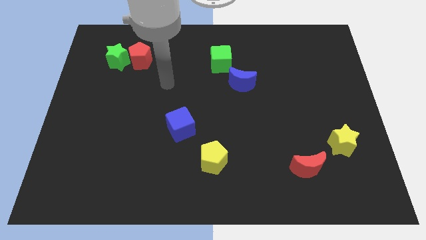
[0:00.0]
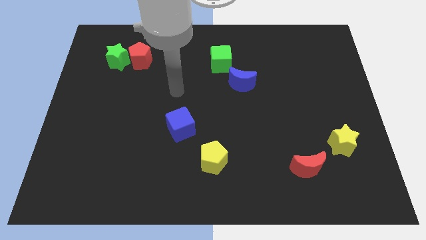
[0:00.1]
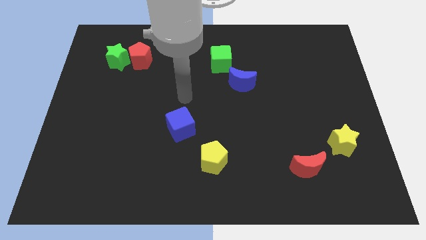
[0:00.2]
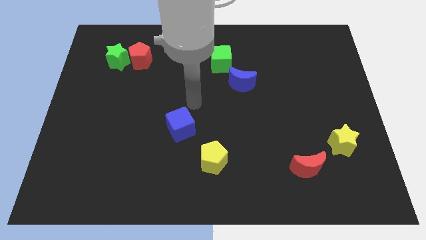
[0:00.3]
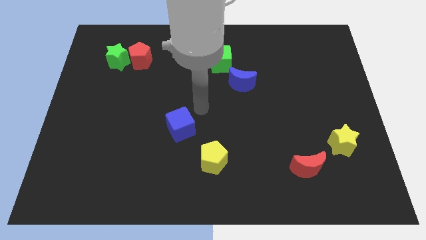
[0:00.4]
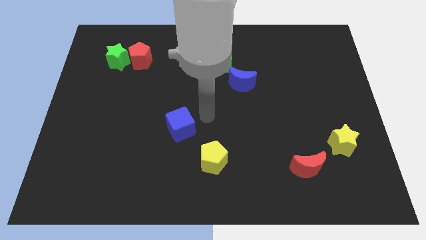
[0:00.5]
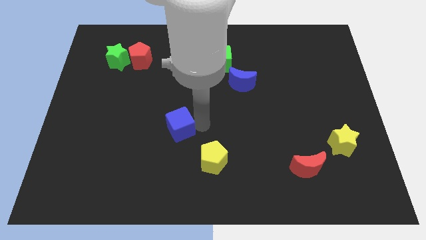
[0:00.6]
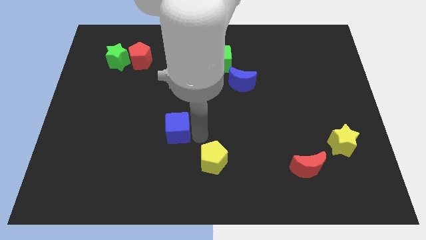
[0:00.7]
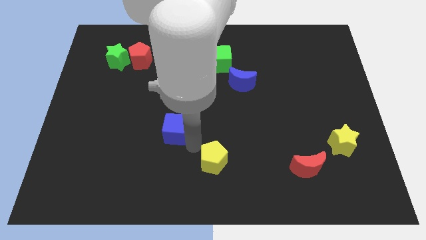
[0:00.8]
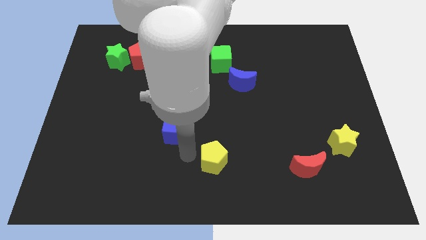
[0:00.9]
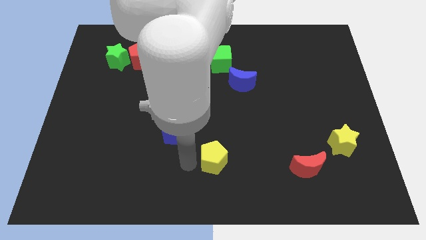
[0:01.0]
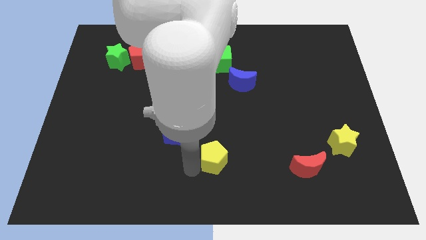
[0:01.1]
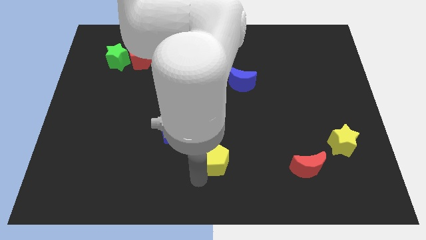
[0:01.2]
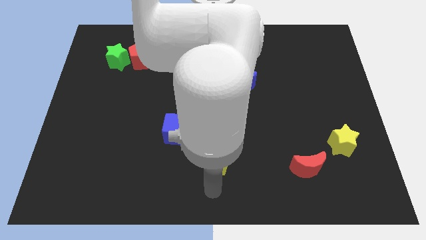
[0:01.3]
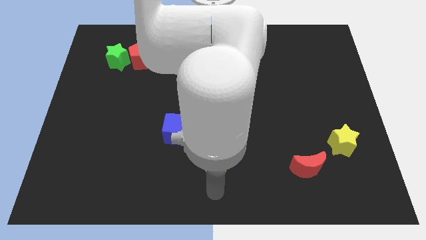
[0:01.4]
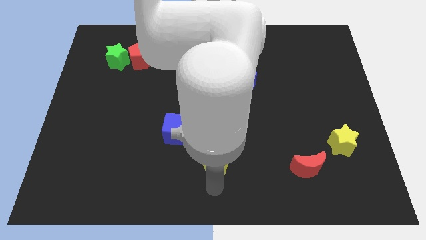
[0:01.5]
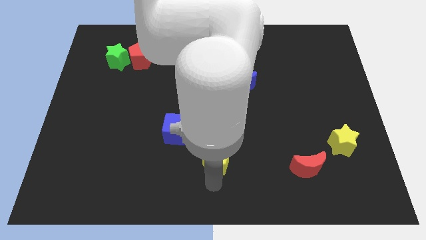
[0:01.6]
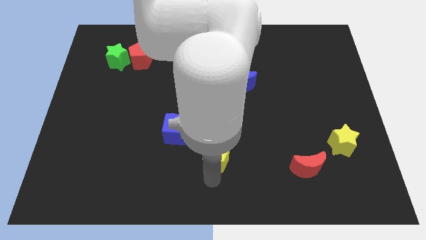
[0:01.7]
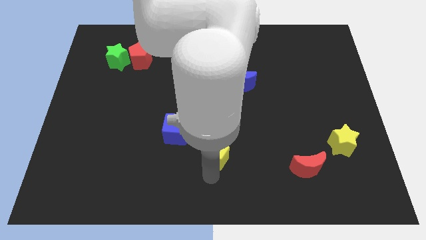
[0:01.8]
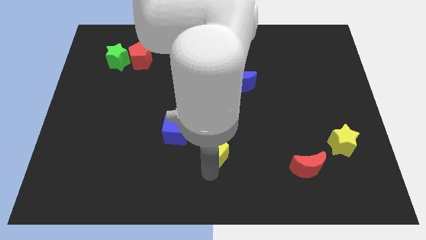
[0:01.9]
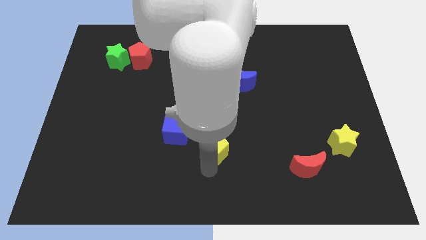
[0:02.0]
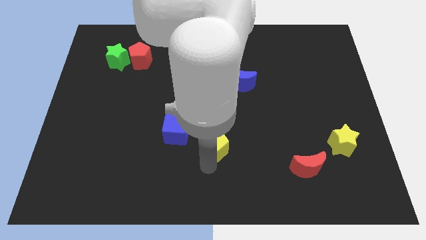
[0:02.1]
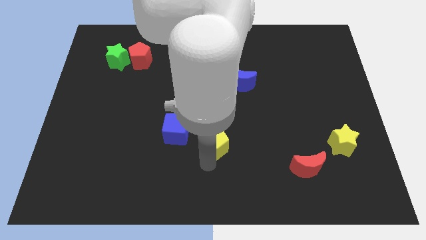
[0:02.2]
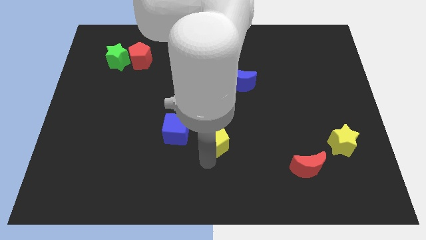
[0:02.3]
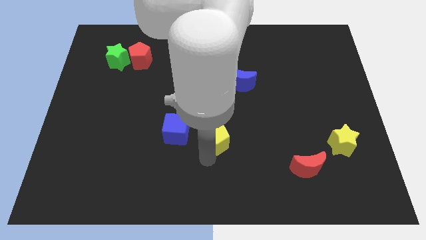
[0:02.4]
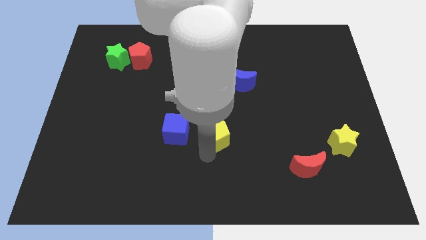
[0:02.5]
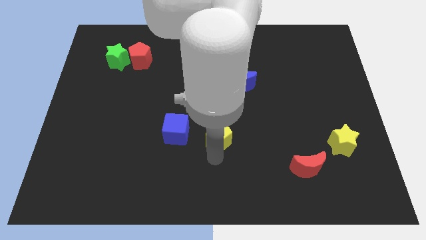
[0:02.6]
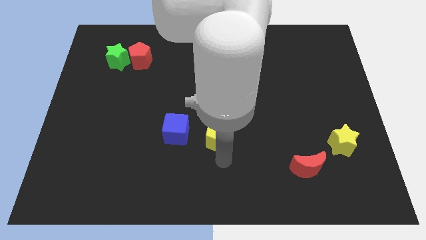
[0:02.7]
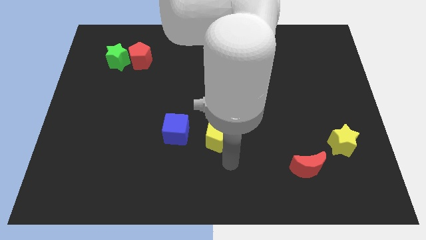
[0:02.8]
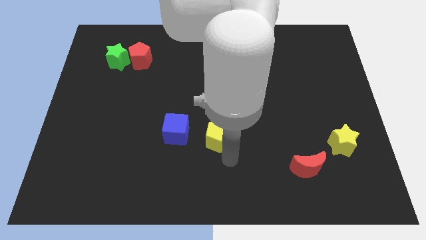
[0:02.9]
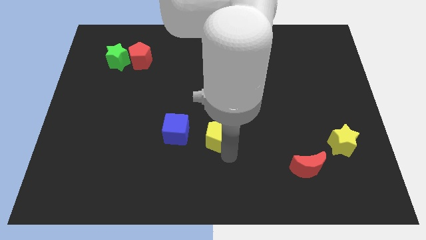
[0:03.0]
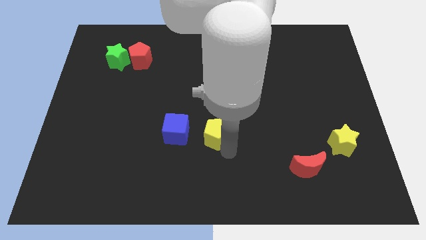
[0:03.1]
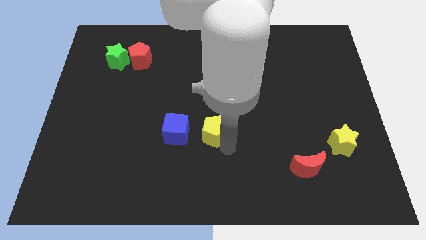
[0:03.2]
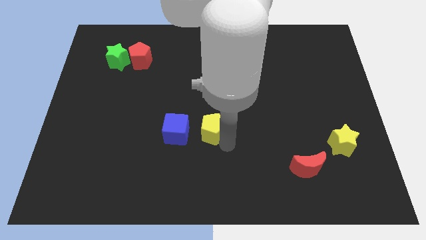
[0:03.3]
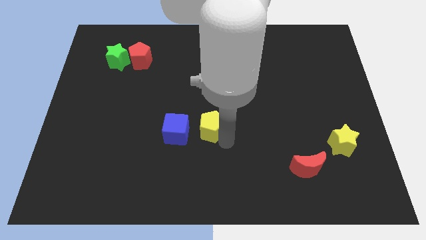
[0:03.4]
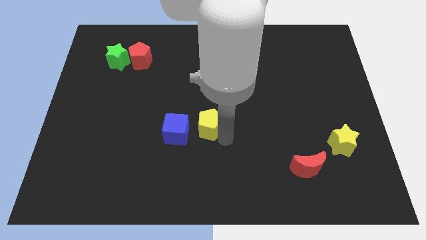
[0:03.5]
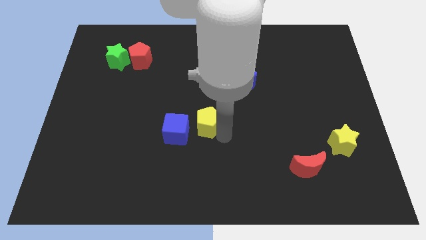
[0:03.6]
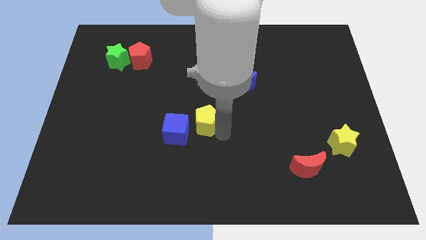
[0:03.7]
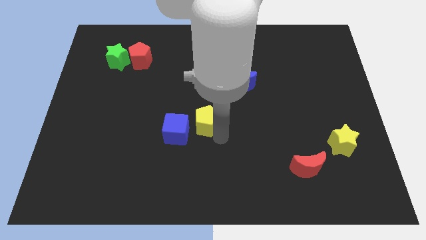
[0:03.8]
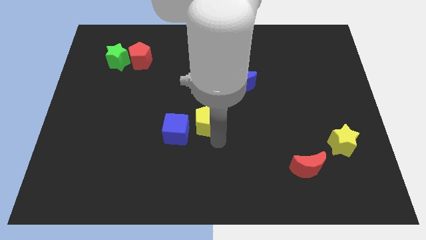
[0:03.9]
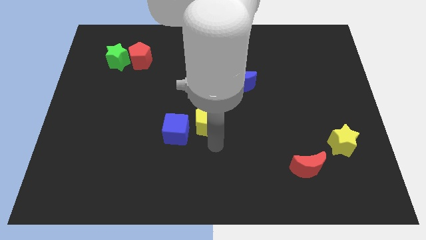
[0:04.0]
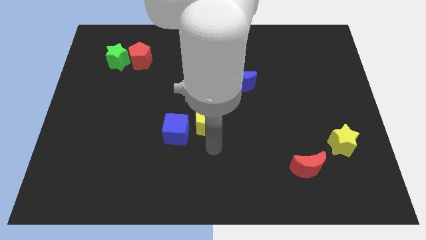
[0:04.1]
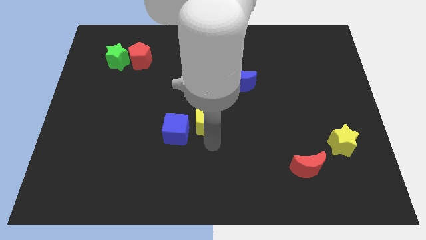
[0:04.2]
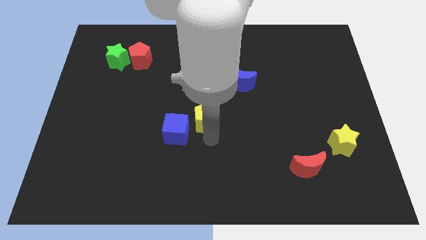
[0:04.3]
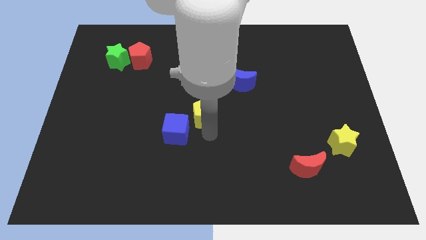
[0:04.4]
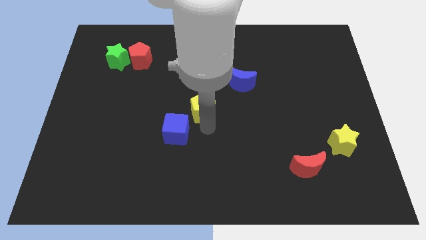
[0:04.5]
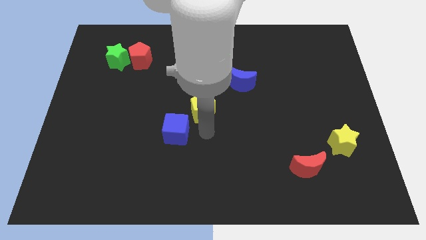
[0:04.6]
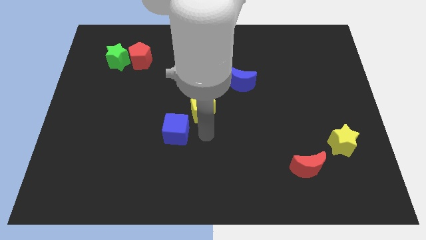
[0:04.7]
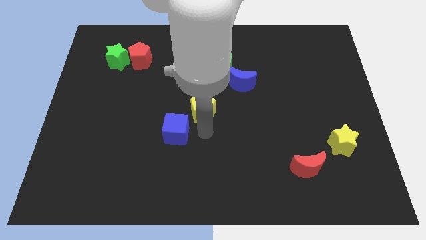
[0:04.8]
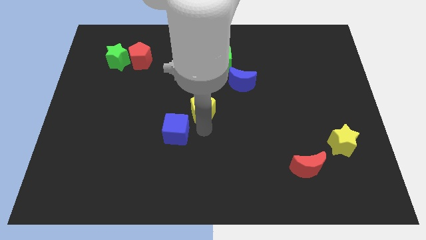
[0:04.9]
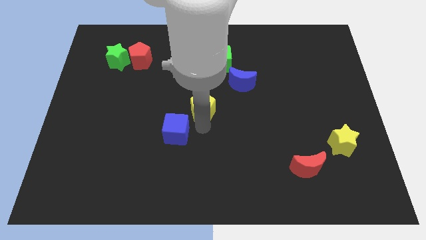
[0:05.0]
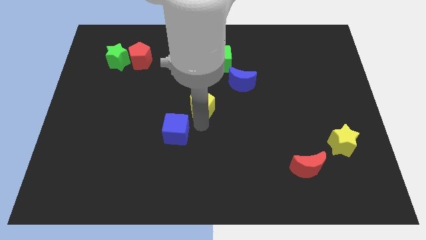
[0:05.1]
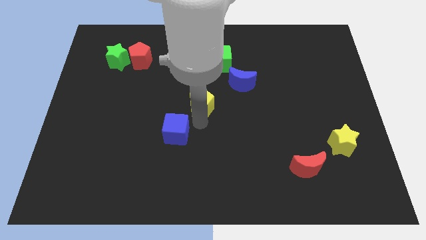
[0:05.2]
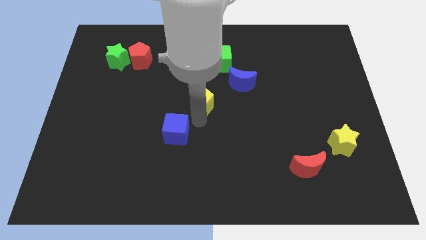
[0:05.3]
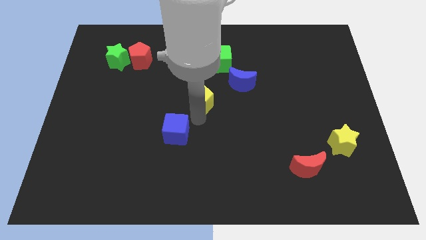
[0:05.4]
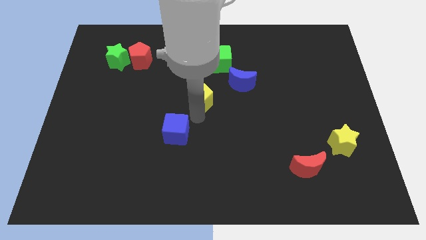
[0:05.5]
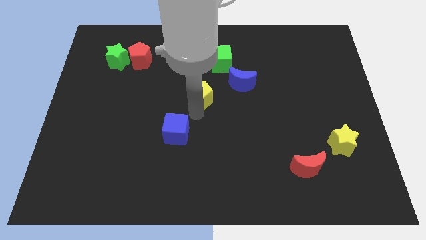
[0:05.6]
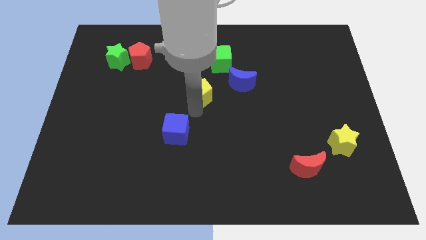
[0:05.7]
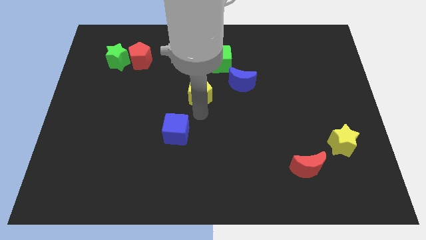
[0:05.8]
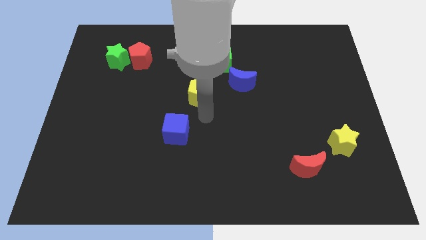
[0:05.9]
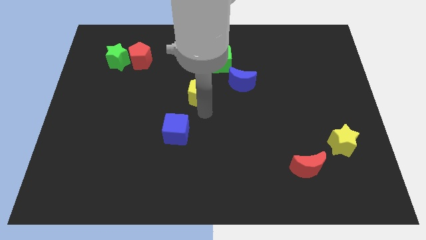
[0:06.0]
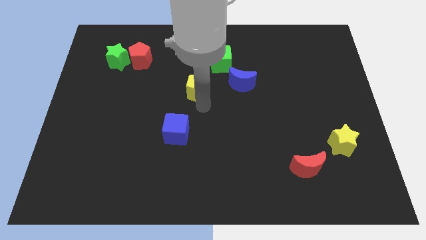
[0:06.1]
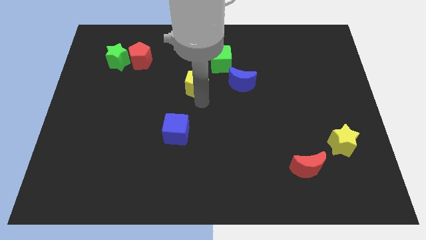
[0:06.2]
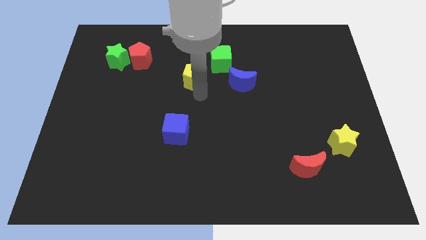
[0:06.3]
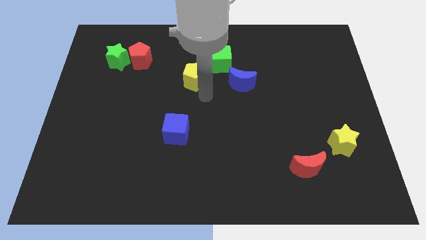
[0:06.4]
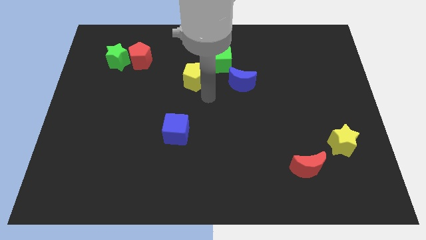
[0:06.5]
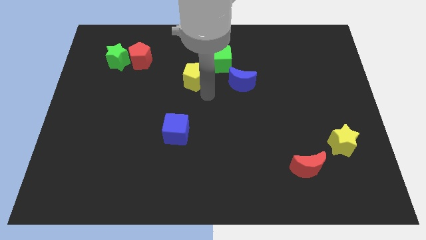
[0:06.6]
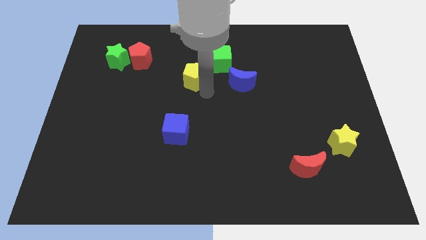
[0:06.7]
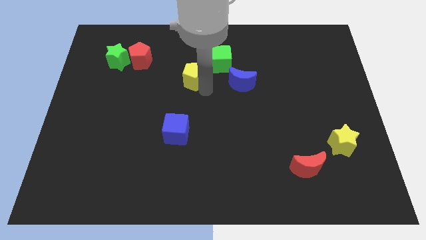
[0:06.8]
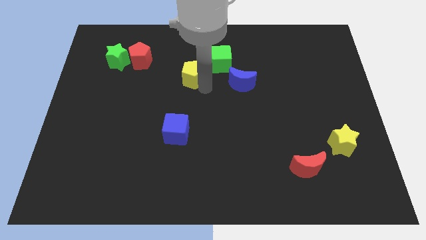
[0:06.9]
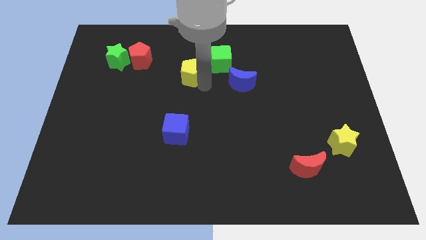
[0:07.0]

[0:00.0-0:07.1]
slide the yellow pentagon just left of the green cube
